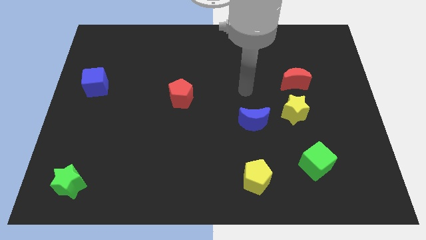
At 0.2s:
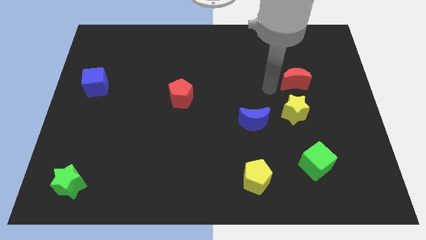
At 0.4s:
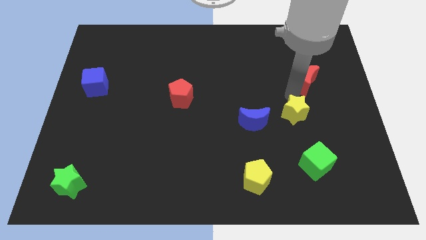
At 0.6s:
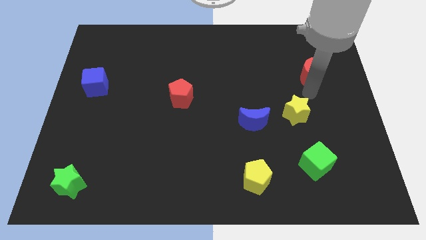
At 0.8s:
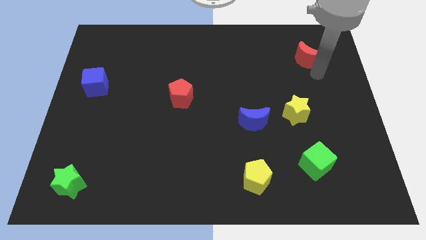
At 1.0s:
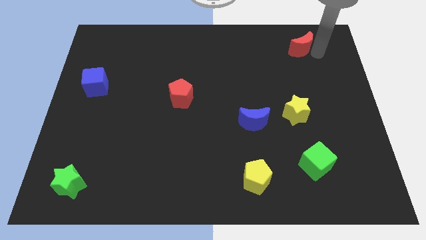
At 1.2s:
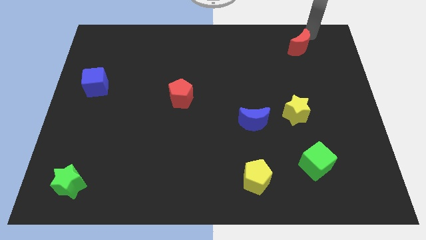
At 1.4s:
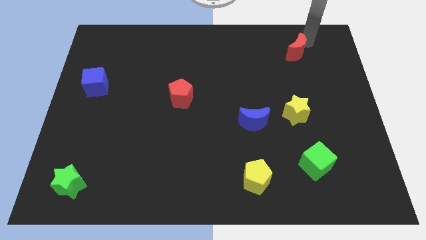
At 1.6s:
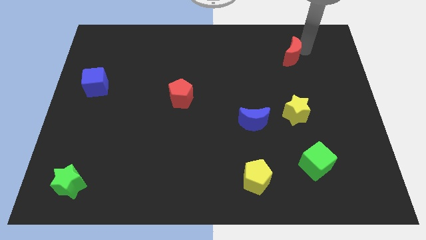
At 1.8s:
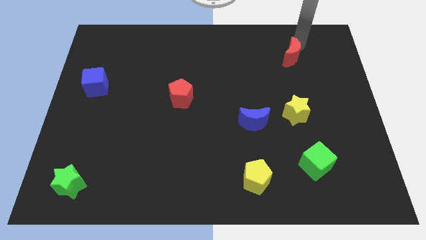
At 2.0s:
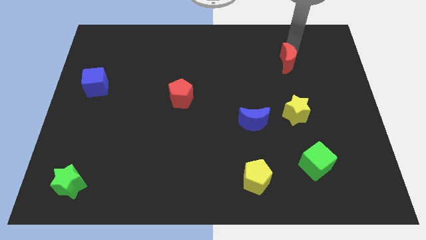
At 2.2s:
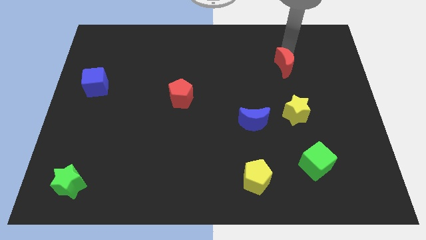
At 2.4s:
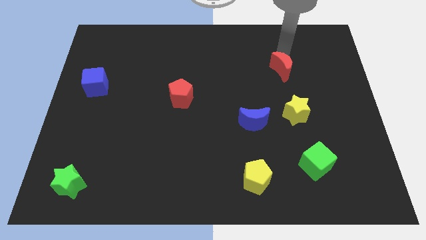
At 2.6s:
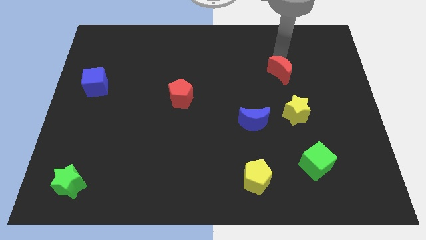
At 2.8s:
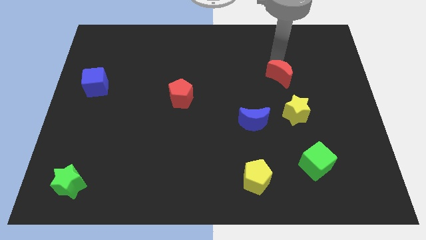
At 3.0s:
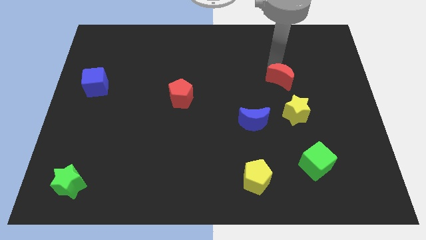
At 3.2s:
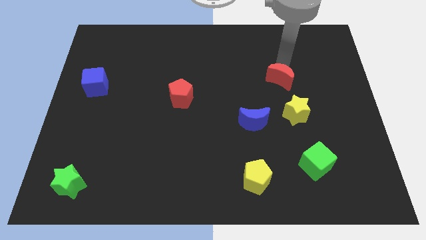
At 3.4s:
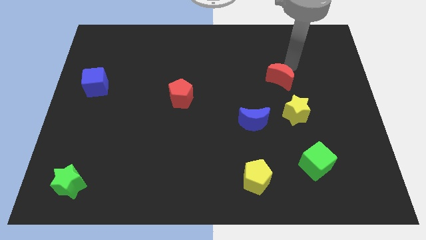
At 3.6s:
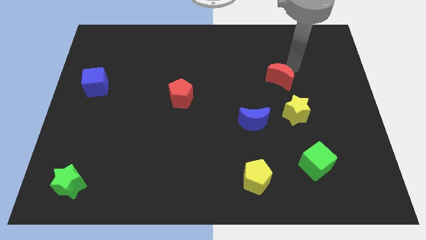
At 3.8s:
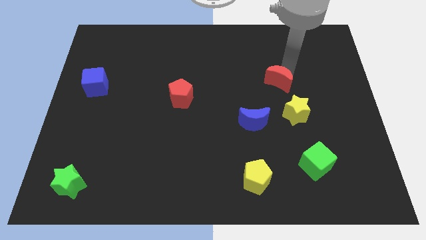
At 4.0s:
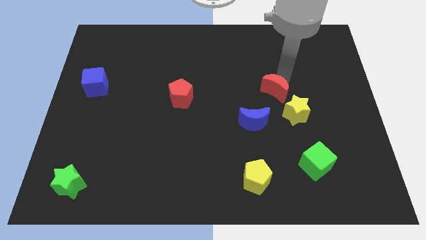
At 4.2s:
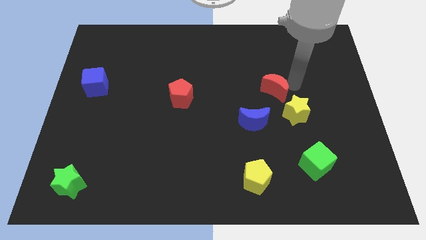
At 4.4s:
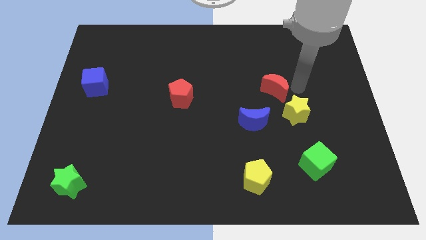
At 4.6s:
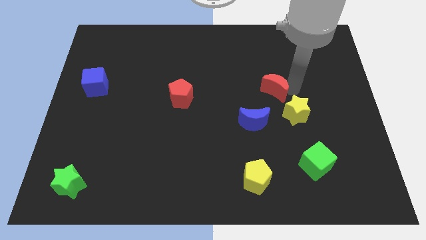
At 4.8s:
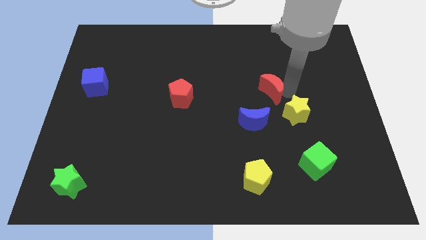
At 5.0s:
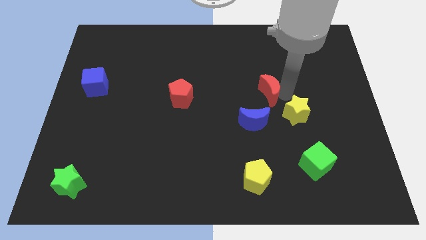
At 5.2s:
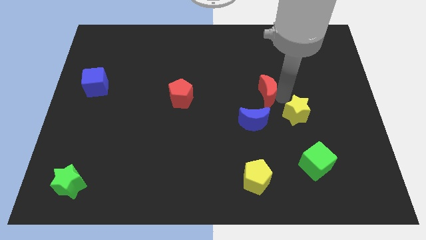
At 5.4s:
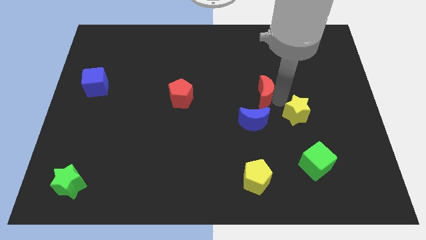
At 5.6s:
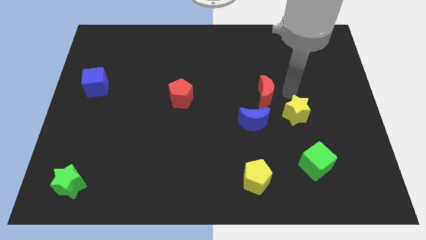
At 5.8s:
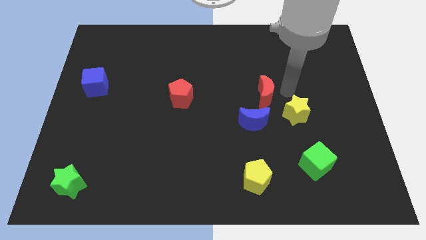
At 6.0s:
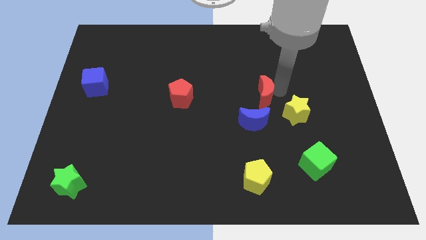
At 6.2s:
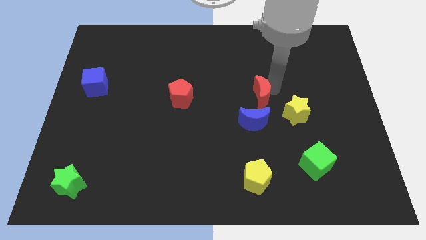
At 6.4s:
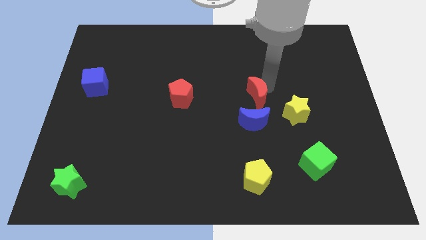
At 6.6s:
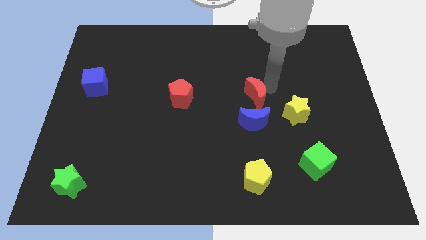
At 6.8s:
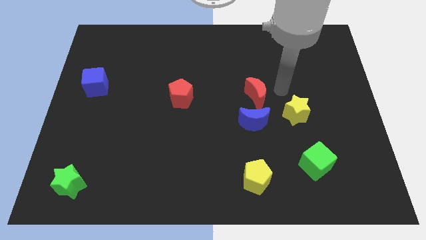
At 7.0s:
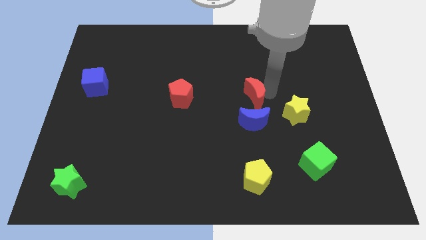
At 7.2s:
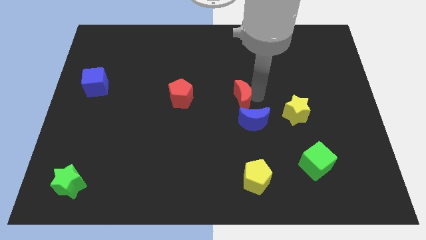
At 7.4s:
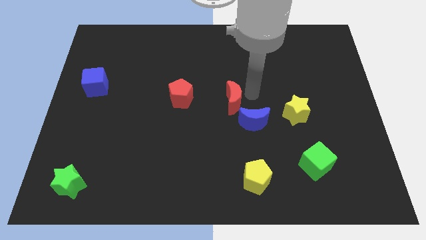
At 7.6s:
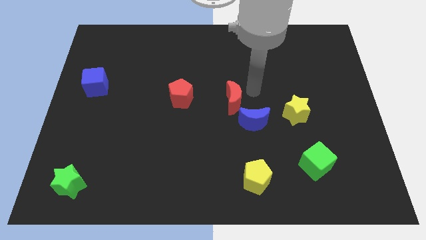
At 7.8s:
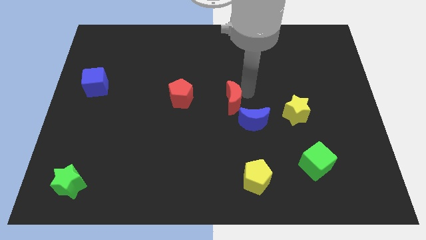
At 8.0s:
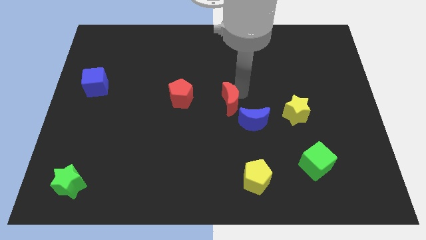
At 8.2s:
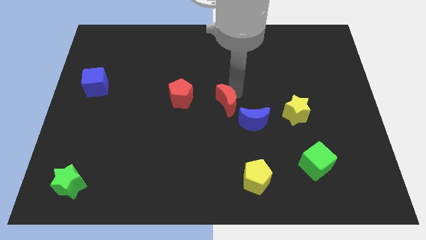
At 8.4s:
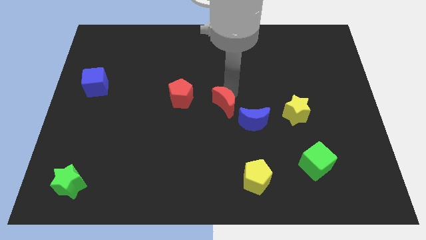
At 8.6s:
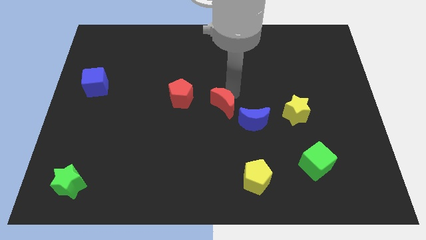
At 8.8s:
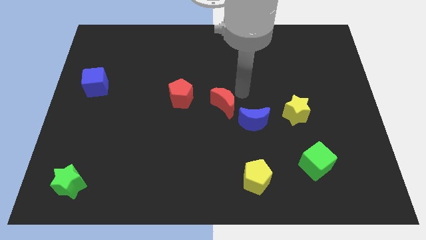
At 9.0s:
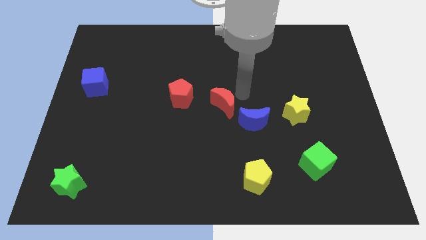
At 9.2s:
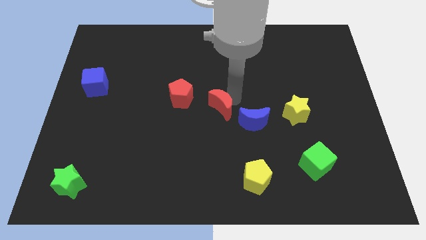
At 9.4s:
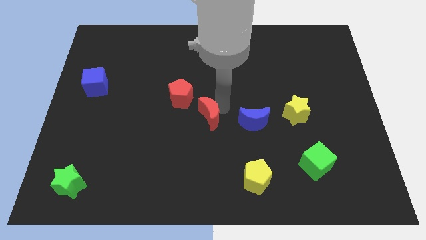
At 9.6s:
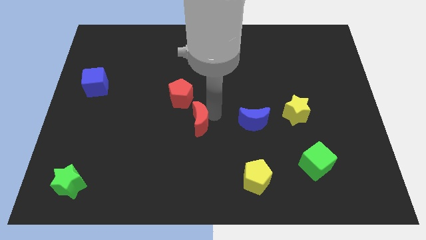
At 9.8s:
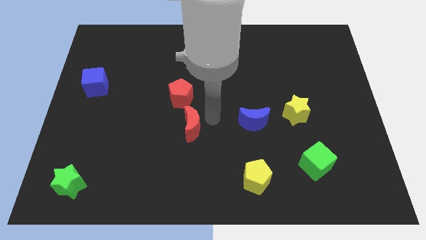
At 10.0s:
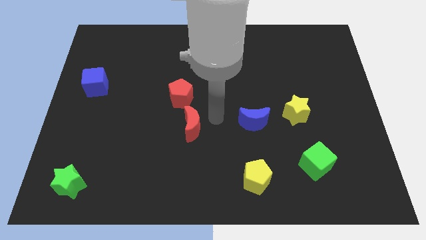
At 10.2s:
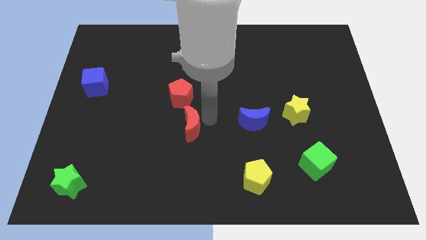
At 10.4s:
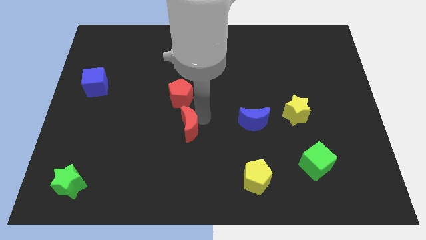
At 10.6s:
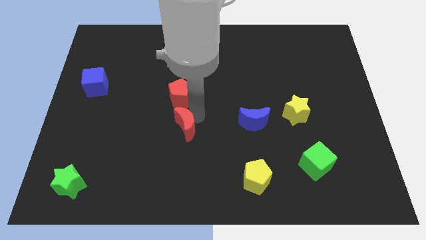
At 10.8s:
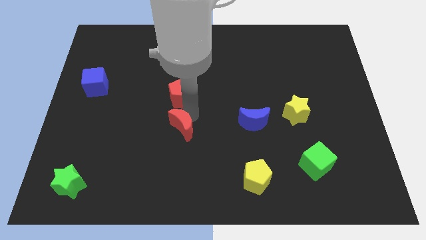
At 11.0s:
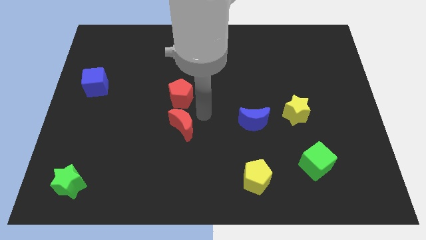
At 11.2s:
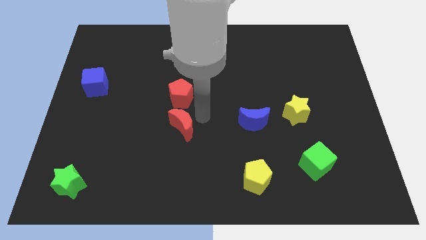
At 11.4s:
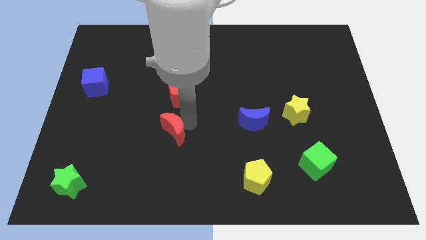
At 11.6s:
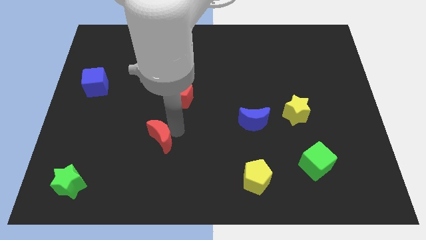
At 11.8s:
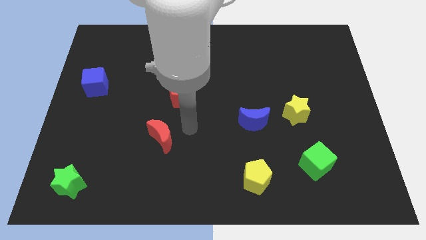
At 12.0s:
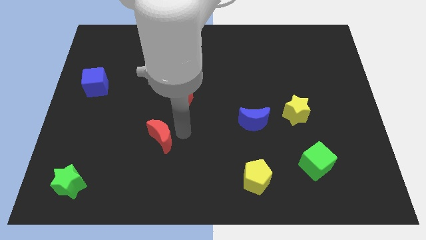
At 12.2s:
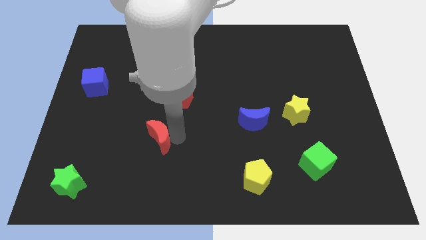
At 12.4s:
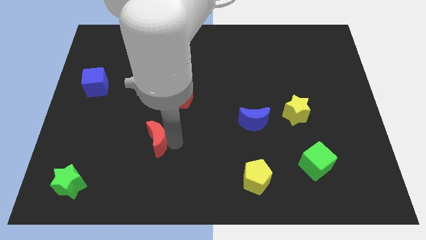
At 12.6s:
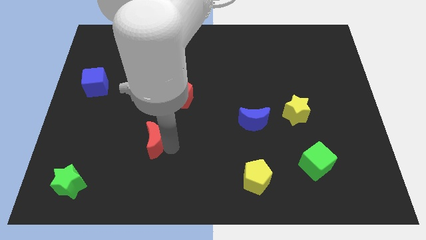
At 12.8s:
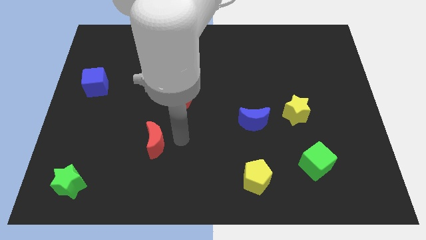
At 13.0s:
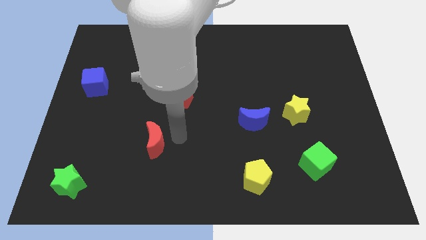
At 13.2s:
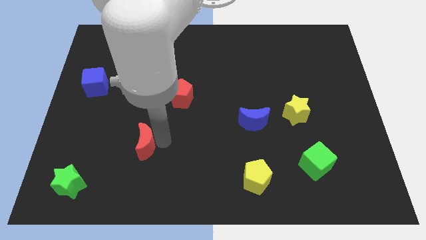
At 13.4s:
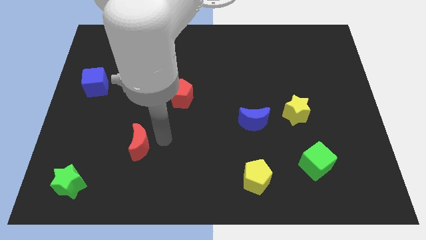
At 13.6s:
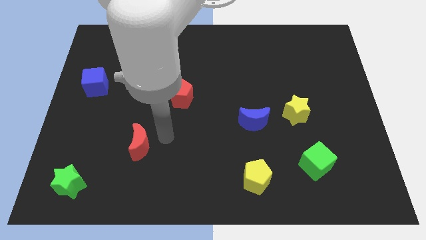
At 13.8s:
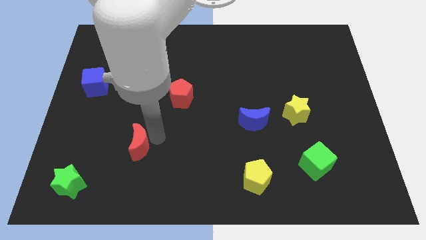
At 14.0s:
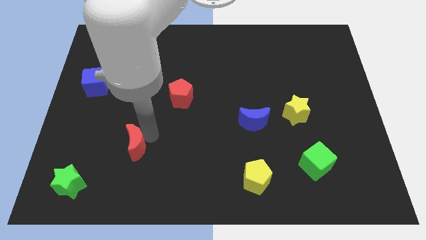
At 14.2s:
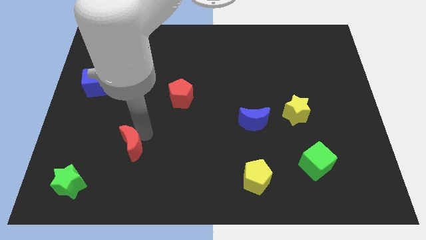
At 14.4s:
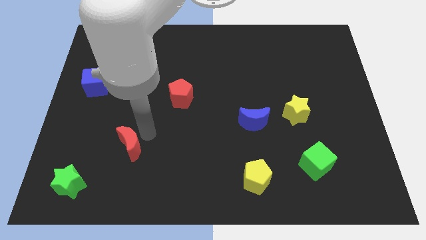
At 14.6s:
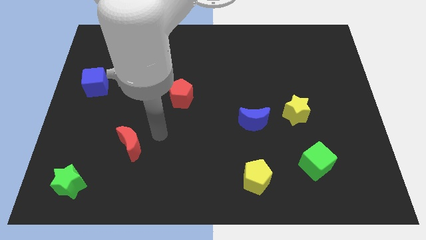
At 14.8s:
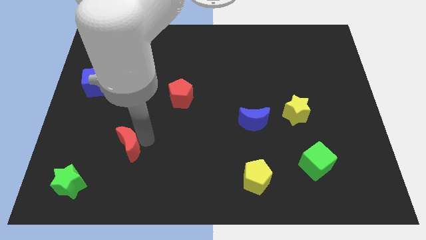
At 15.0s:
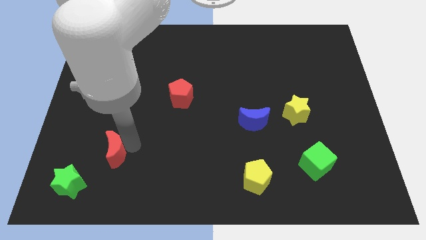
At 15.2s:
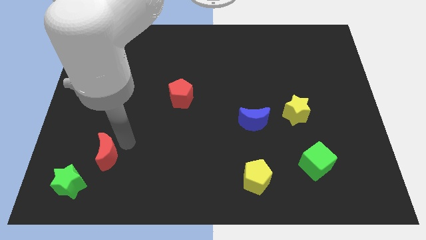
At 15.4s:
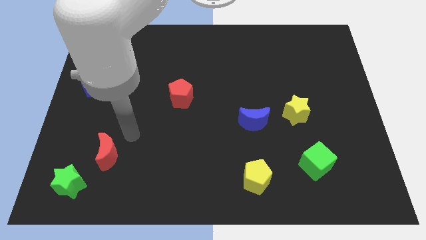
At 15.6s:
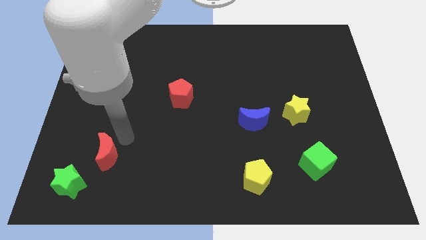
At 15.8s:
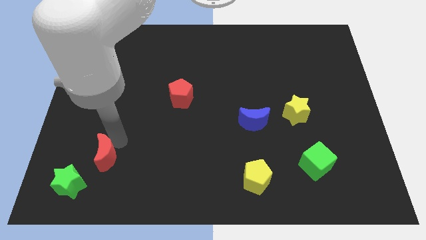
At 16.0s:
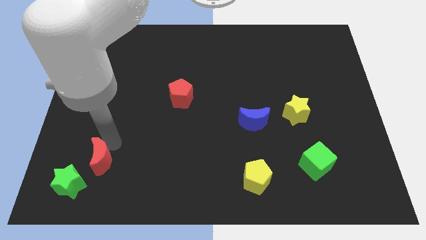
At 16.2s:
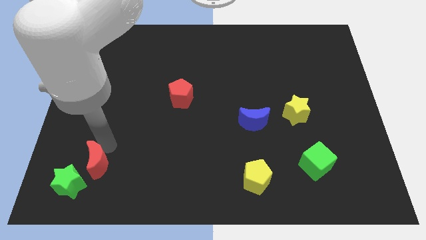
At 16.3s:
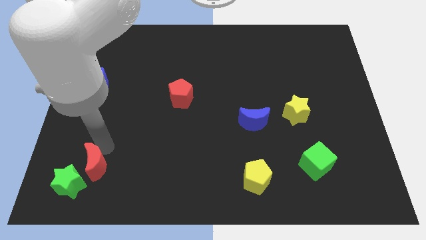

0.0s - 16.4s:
push the red moon next to the green star
